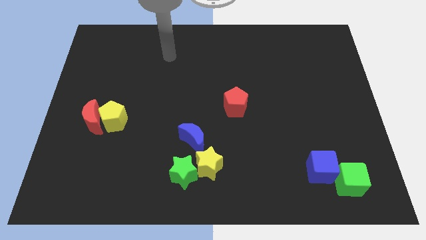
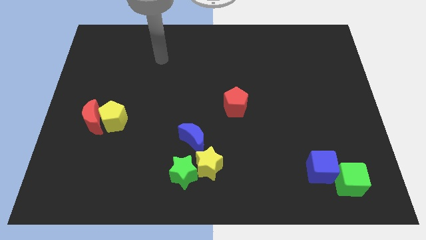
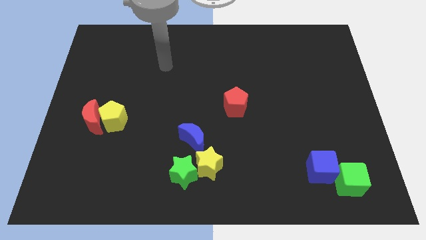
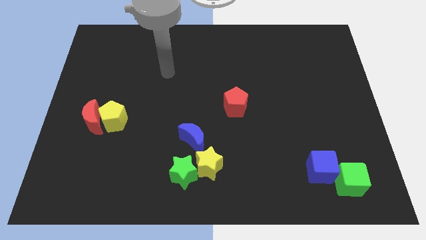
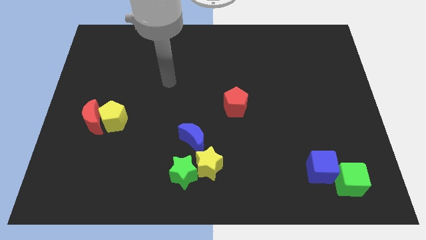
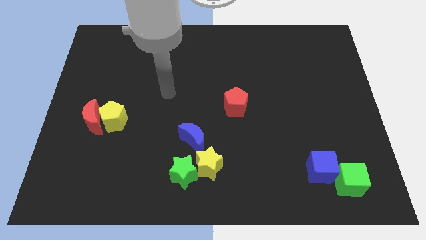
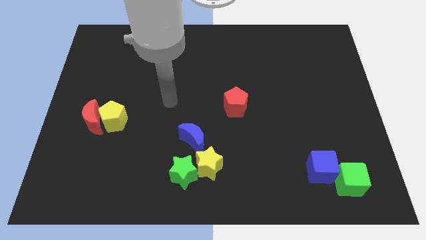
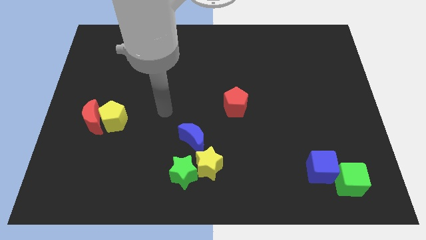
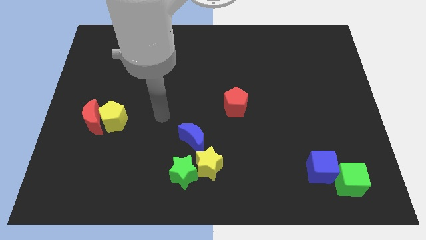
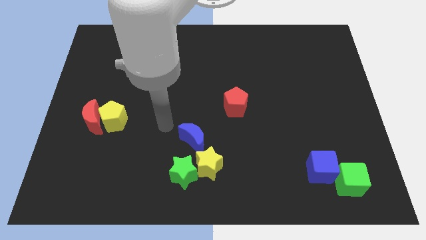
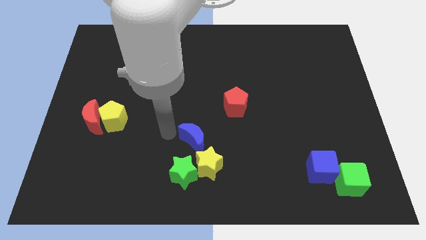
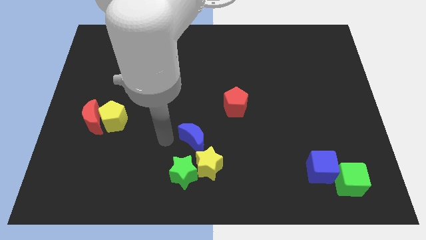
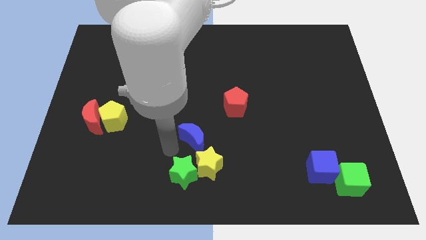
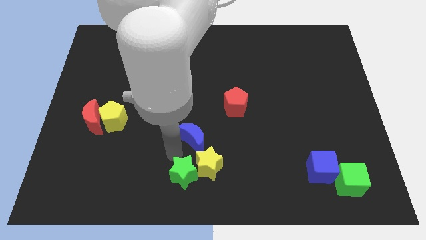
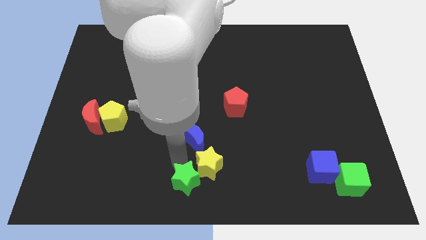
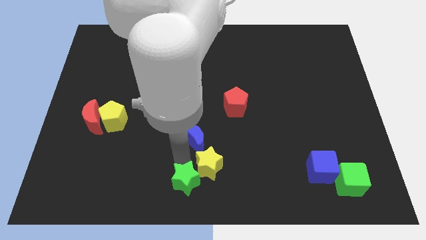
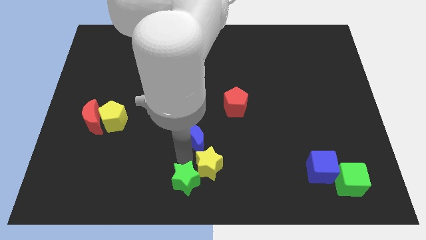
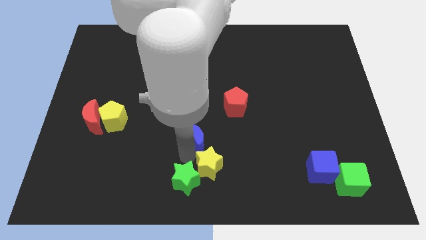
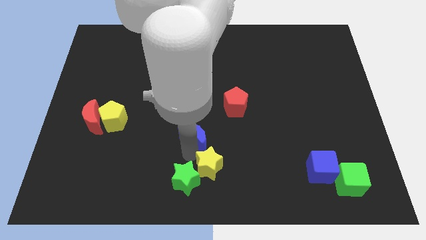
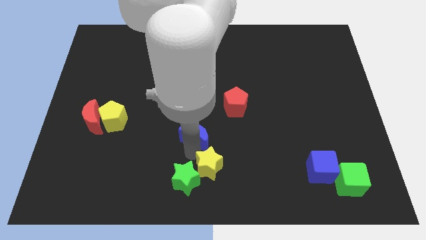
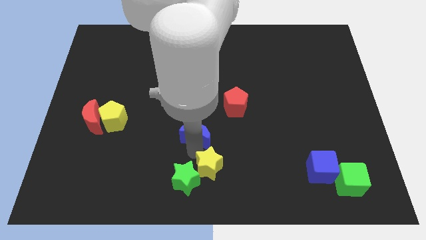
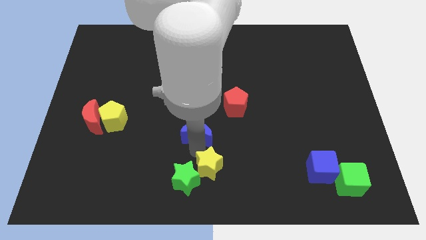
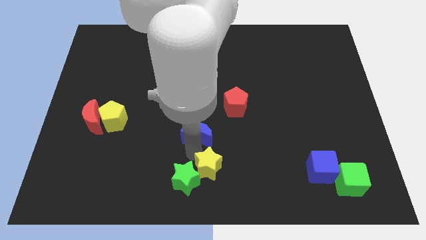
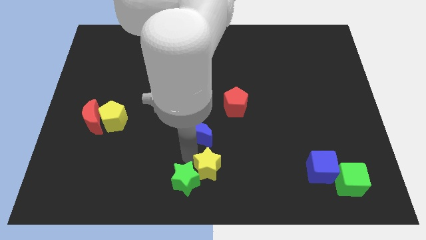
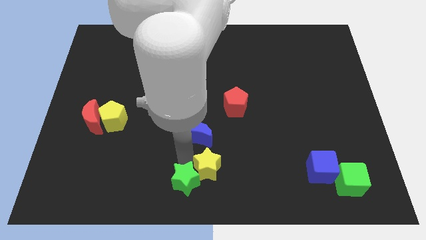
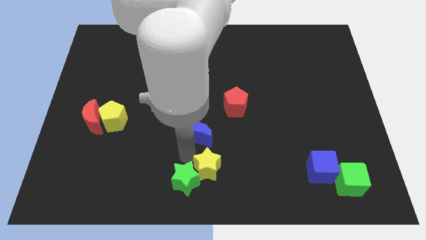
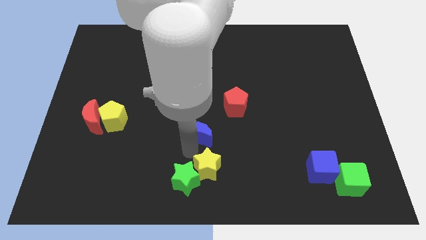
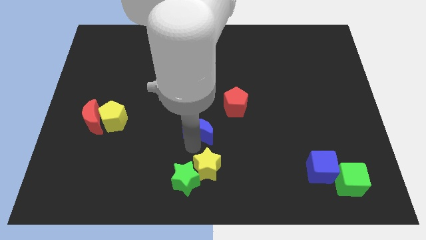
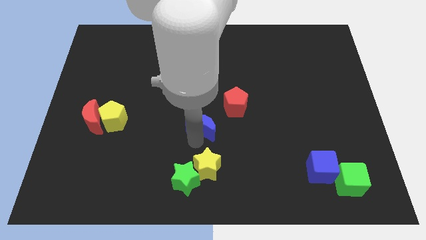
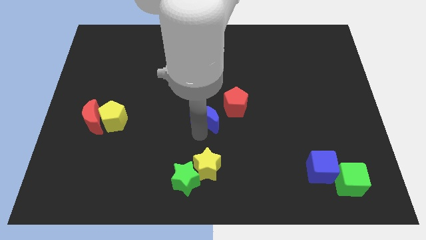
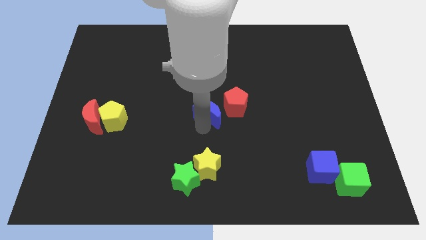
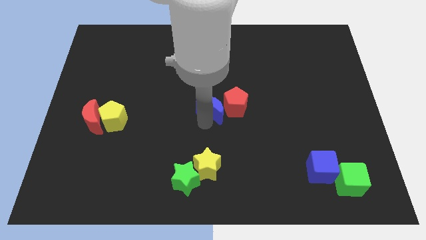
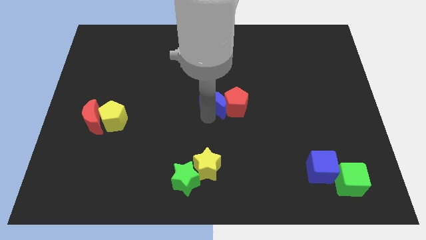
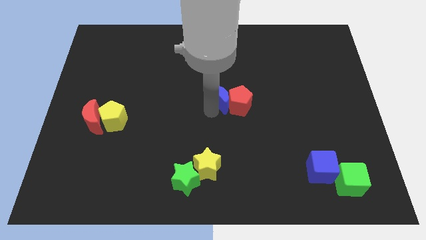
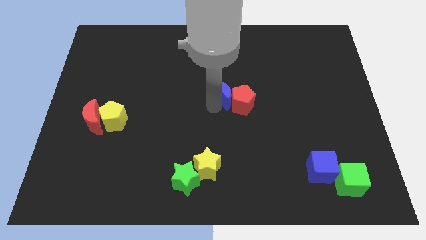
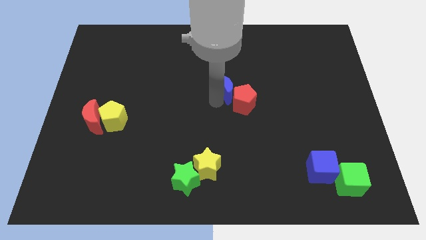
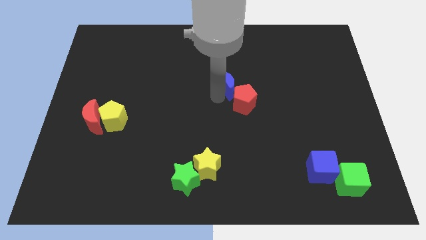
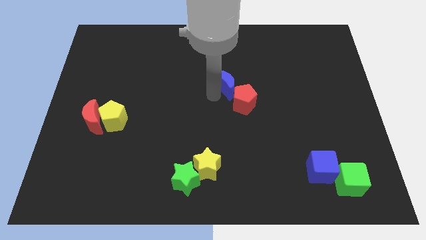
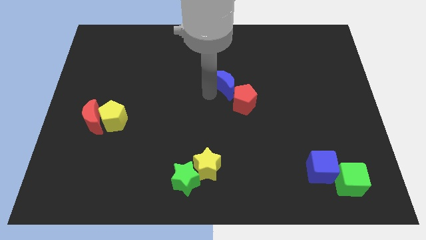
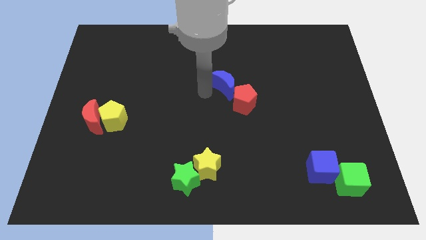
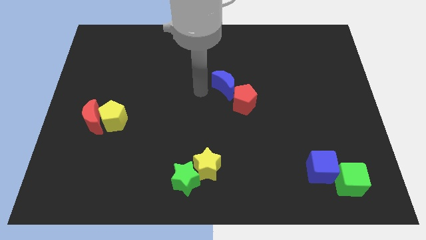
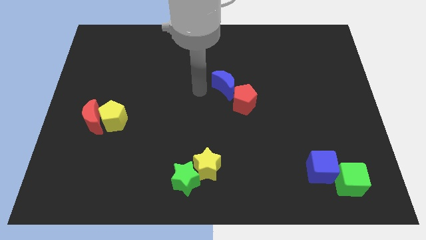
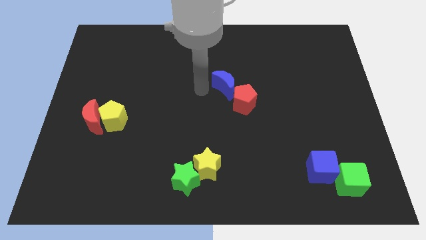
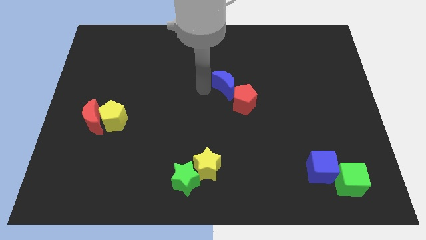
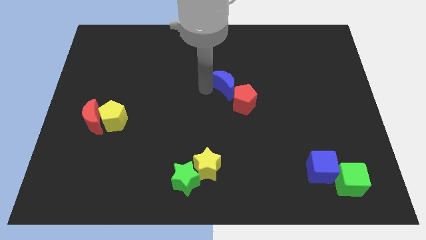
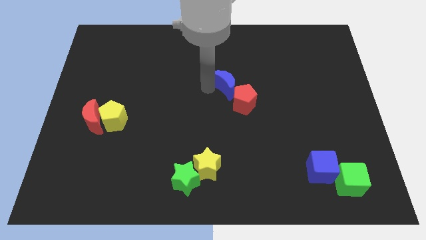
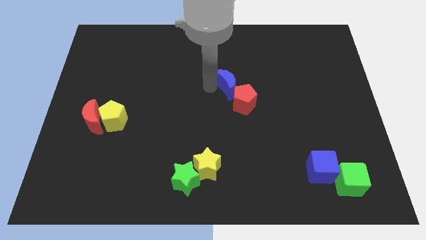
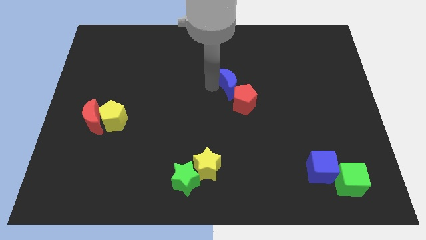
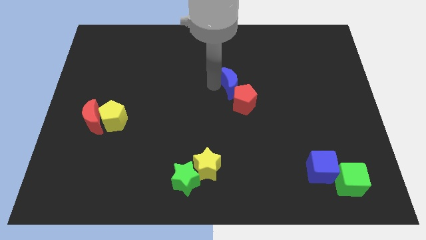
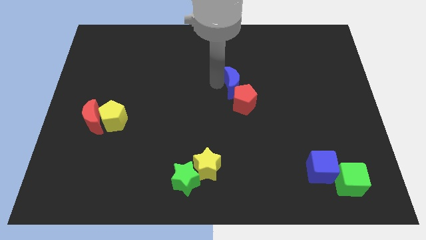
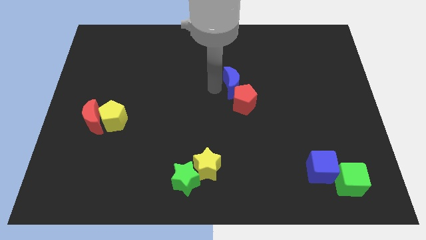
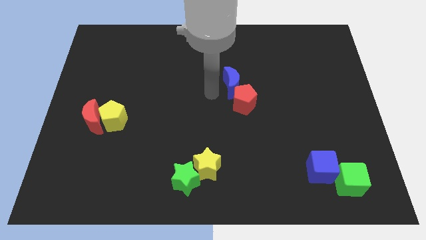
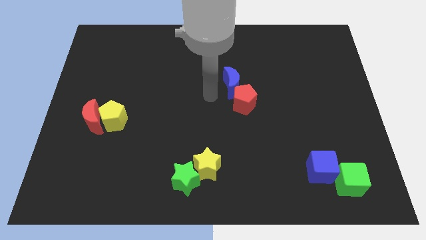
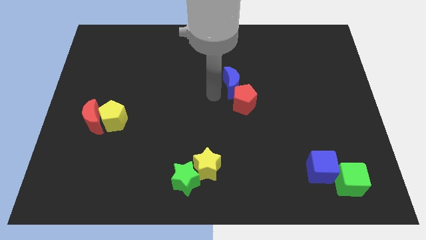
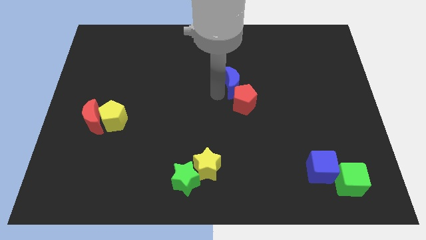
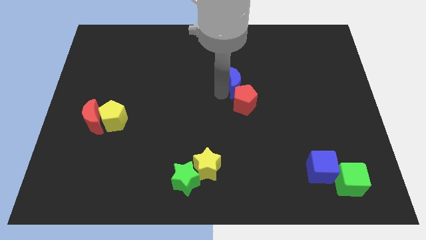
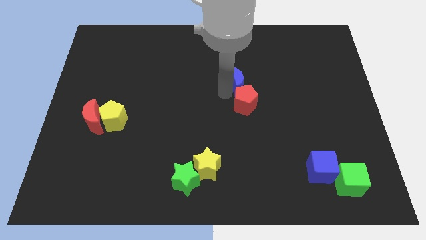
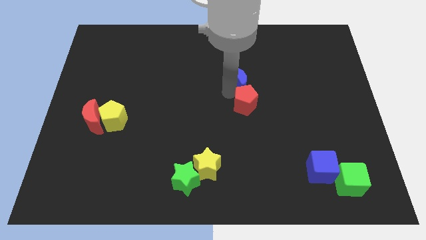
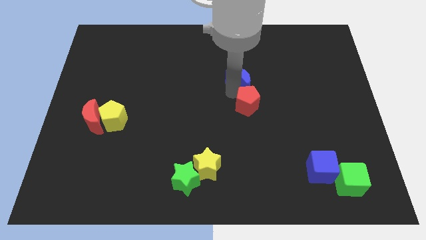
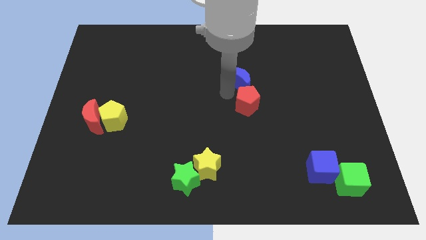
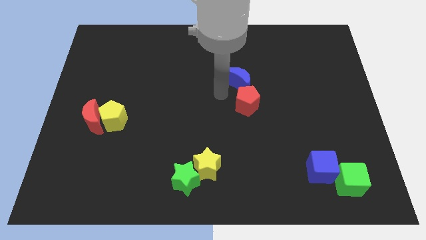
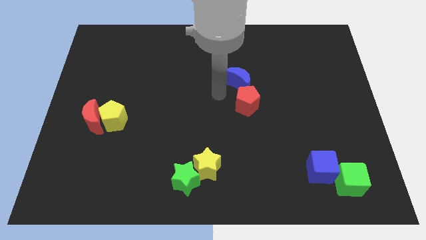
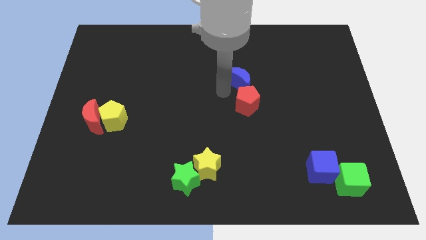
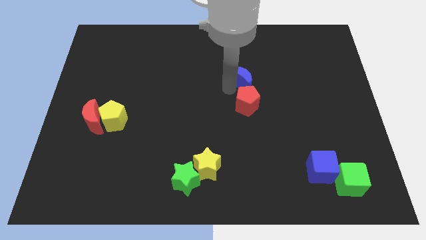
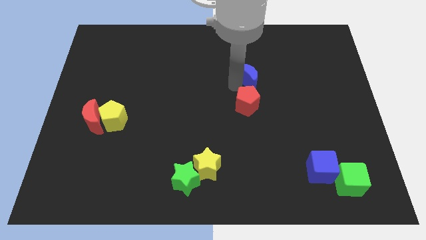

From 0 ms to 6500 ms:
slide the blue moon diagonally up and to the right

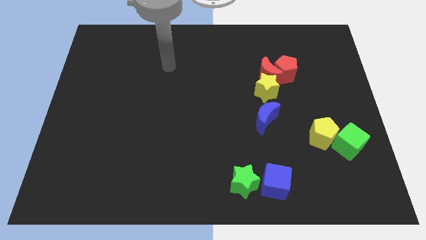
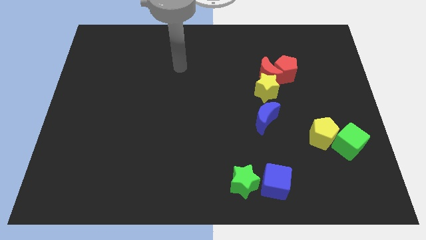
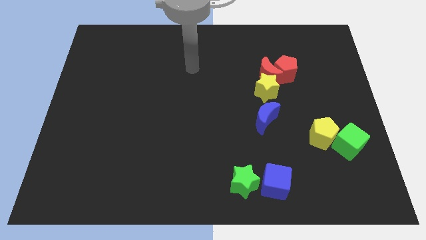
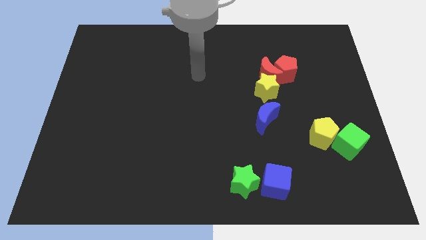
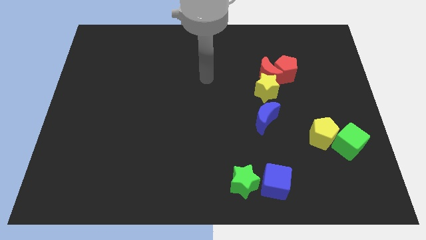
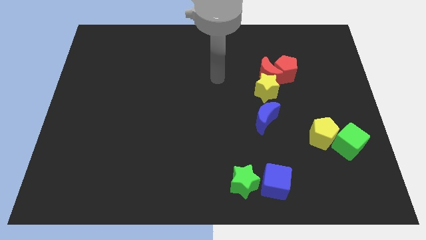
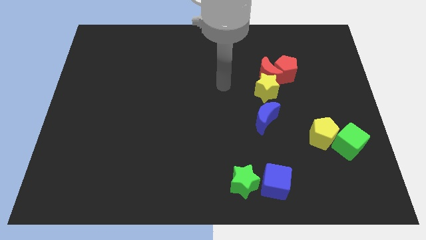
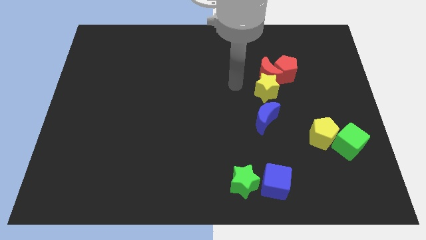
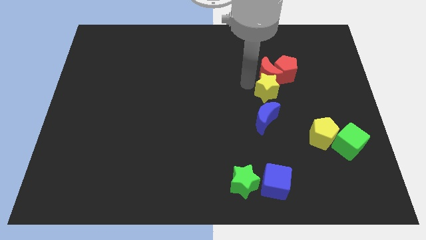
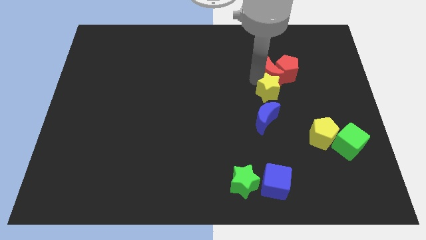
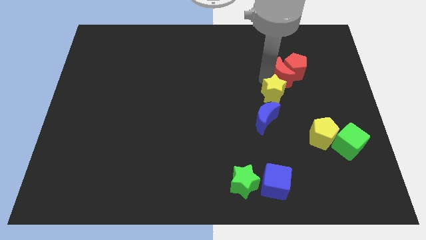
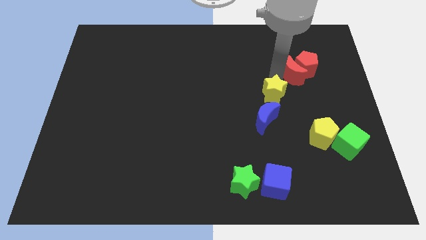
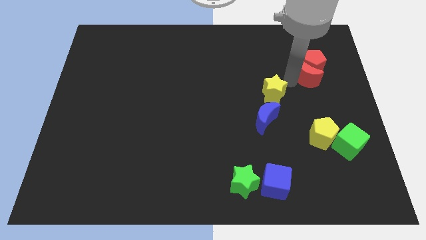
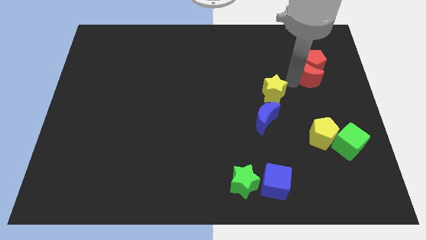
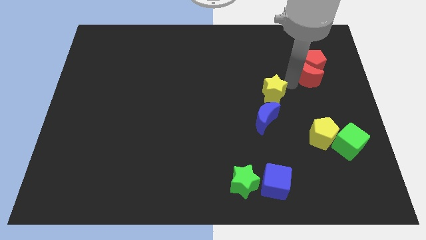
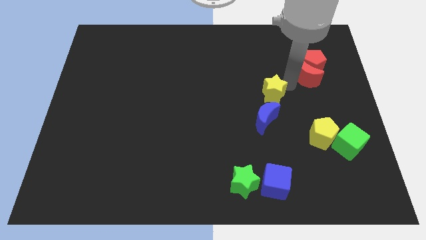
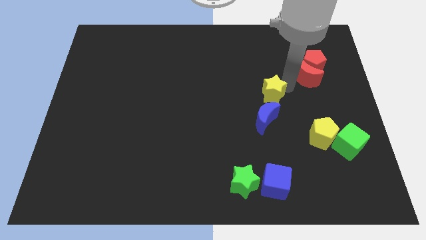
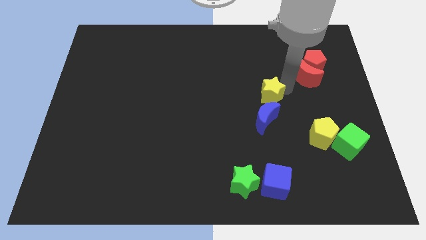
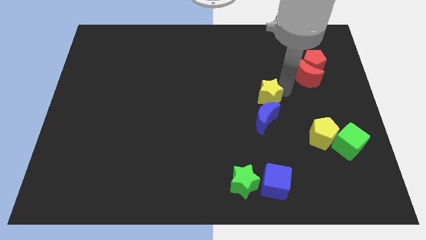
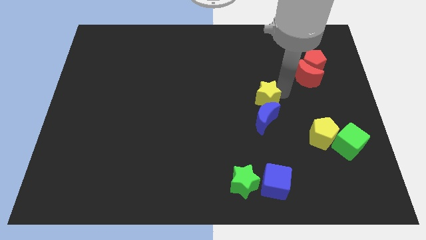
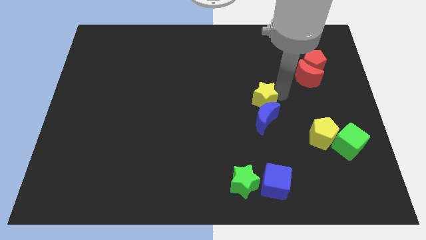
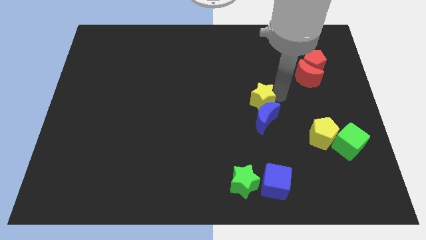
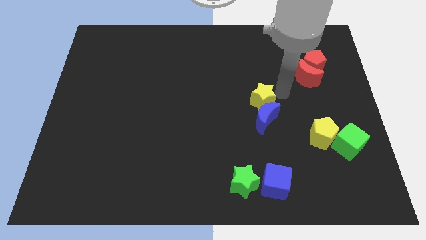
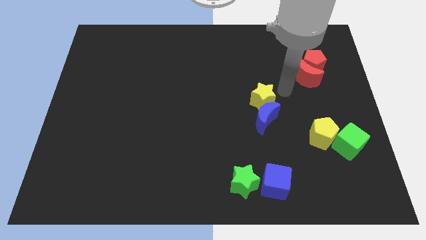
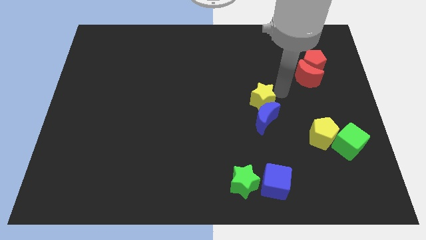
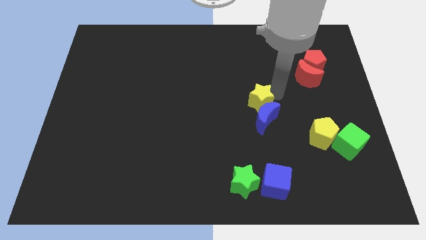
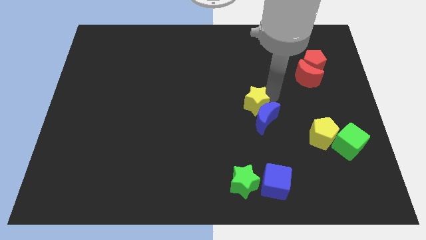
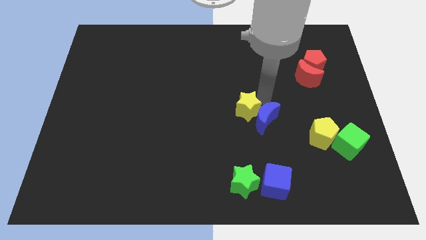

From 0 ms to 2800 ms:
slightly slide the yellow star down and to the left
